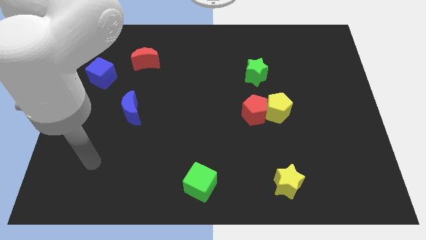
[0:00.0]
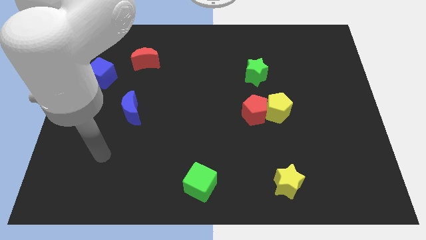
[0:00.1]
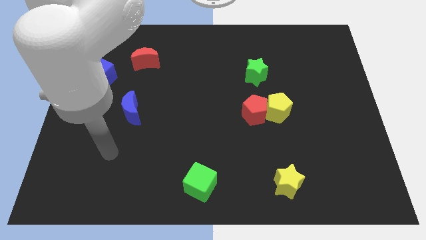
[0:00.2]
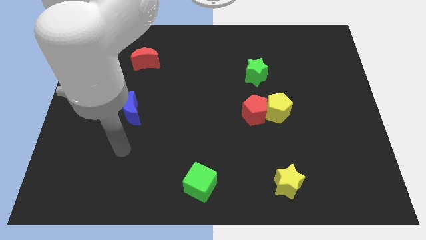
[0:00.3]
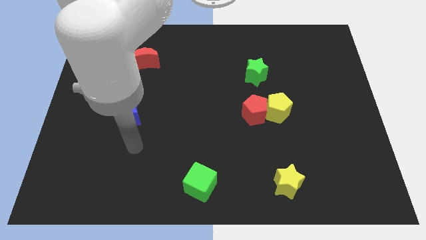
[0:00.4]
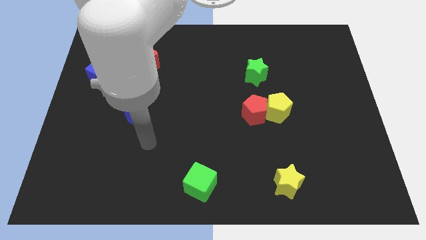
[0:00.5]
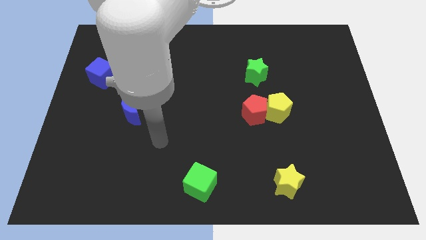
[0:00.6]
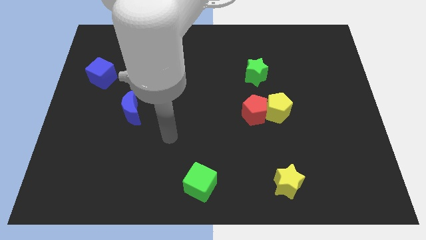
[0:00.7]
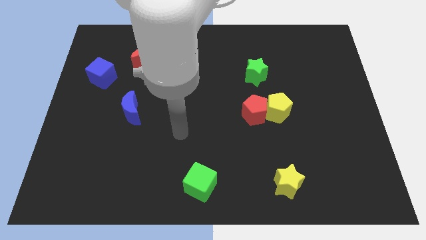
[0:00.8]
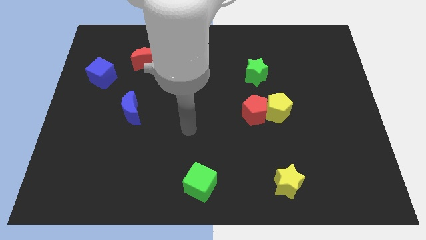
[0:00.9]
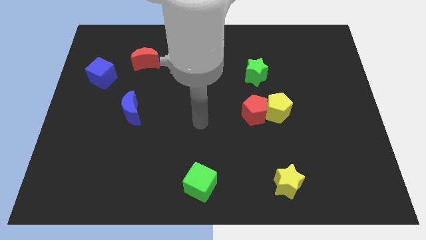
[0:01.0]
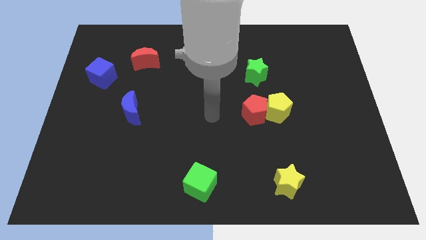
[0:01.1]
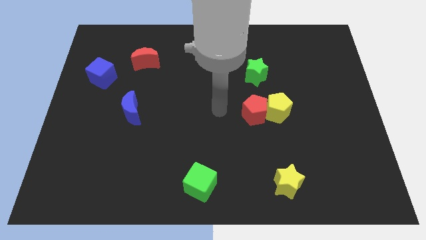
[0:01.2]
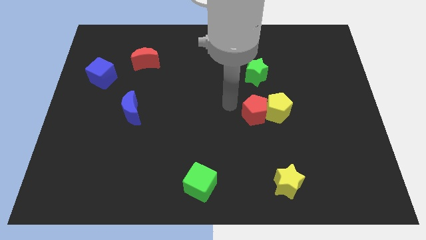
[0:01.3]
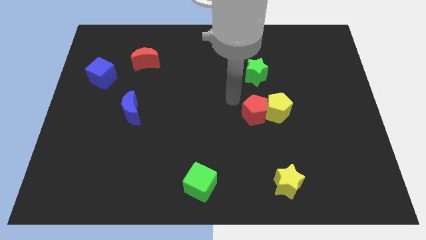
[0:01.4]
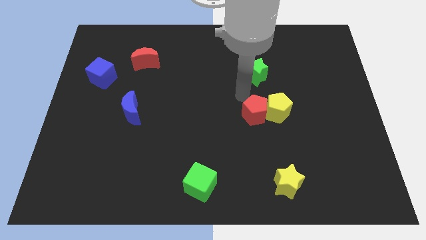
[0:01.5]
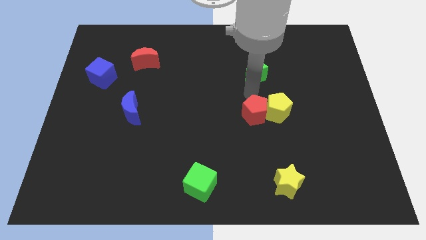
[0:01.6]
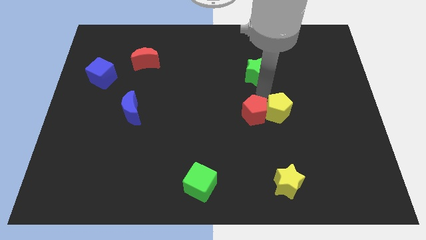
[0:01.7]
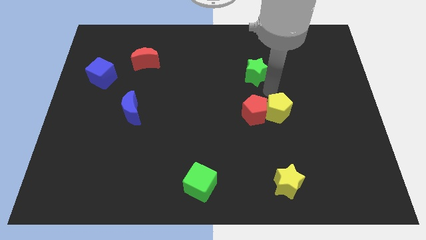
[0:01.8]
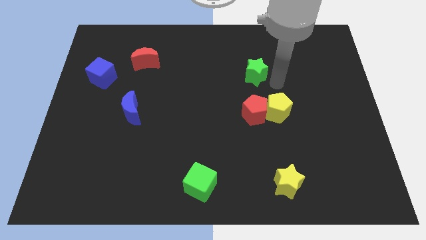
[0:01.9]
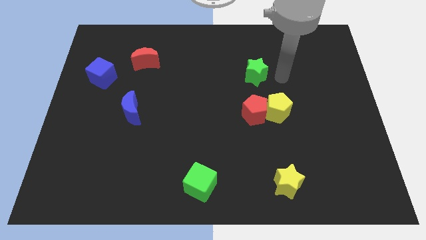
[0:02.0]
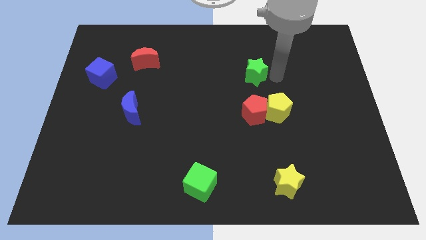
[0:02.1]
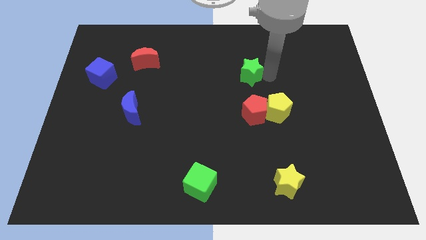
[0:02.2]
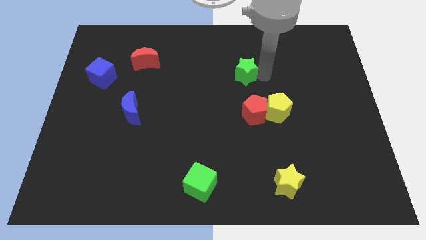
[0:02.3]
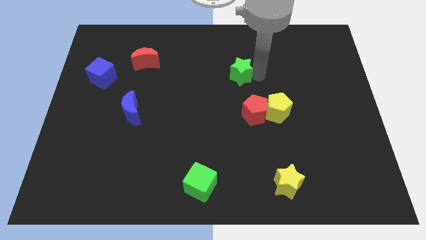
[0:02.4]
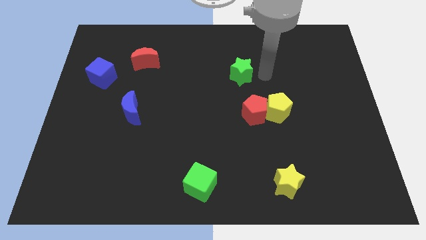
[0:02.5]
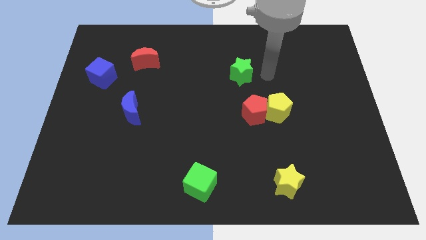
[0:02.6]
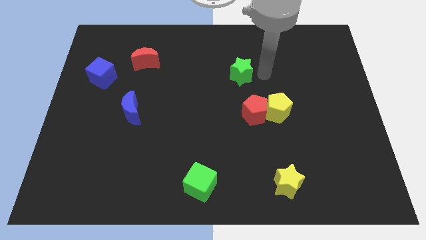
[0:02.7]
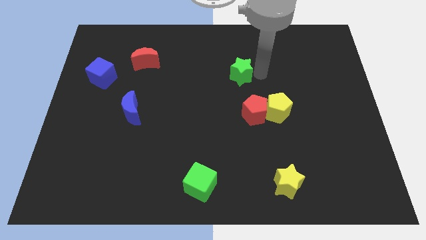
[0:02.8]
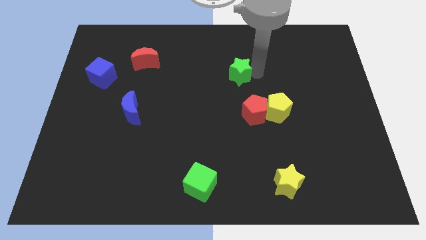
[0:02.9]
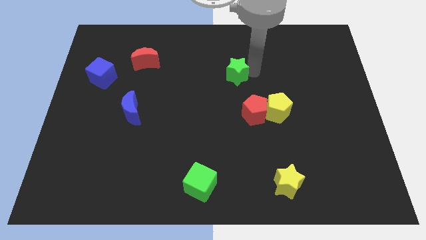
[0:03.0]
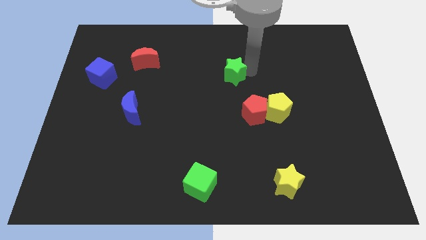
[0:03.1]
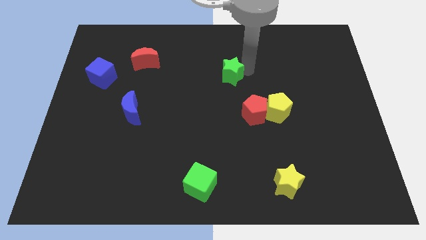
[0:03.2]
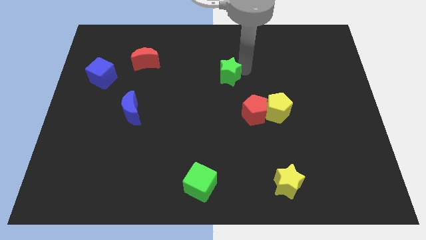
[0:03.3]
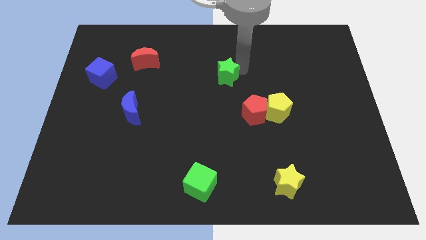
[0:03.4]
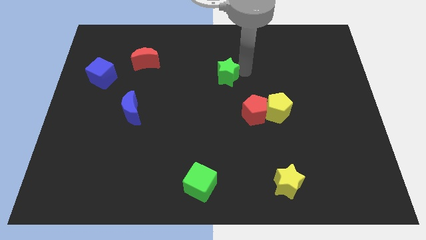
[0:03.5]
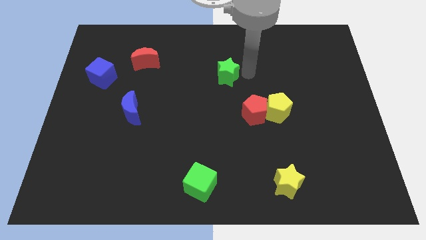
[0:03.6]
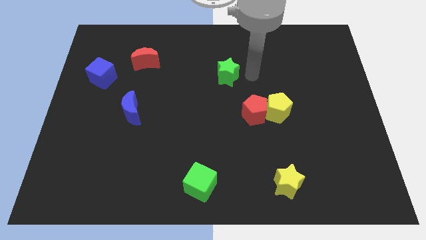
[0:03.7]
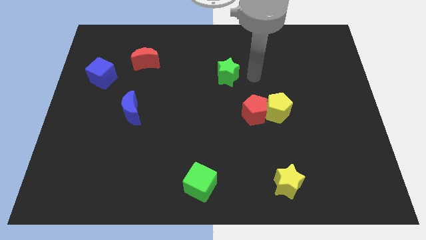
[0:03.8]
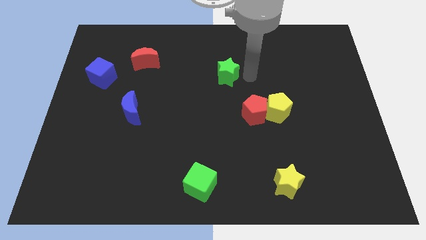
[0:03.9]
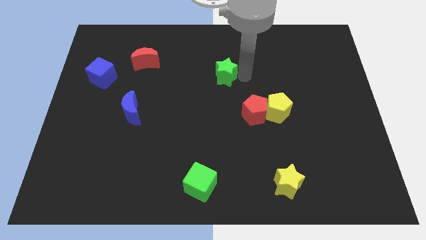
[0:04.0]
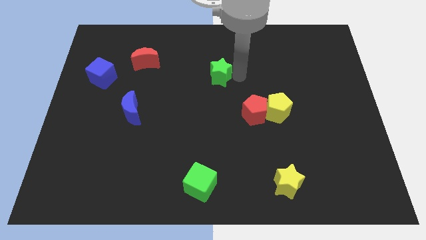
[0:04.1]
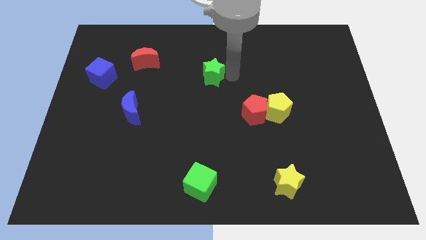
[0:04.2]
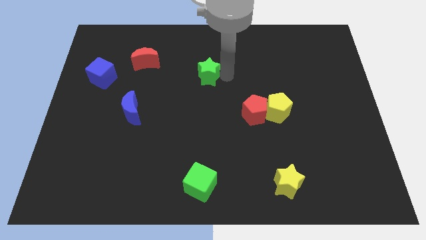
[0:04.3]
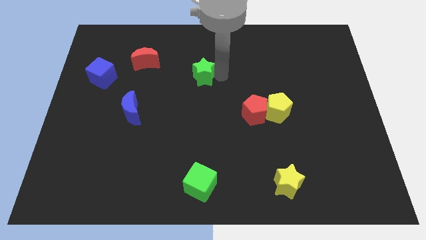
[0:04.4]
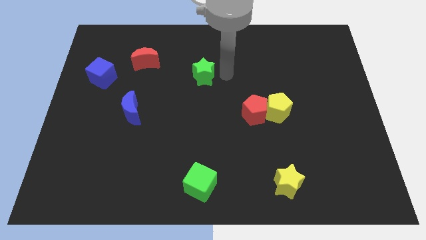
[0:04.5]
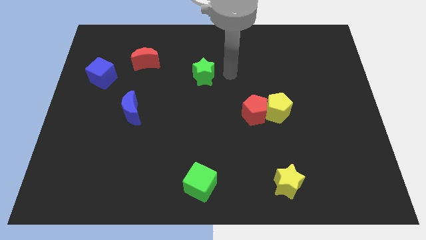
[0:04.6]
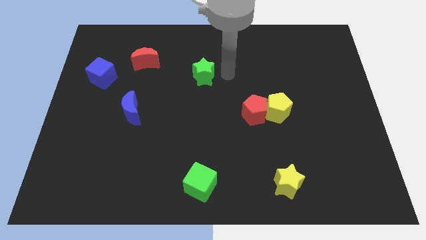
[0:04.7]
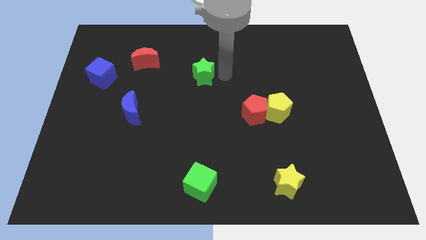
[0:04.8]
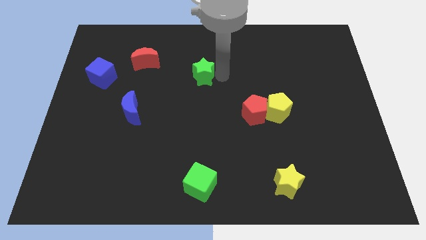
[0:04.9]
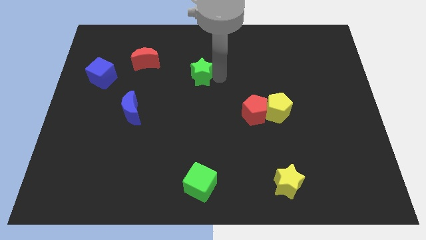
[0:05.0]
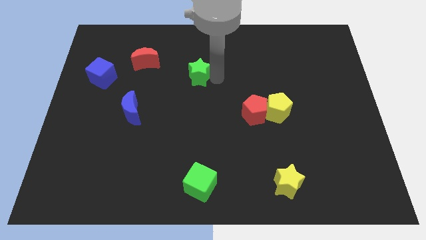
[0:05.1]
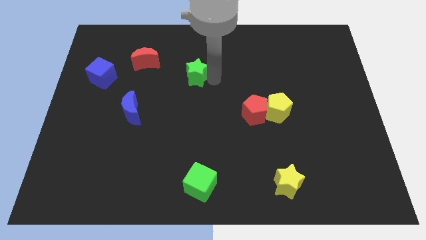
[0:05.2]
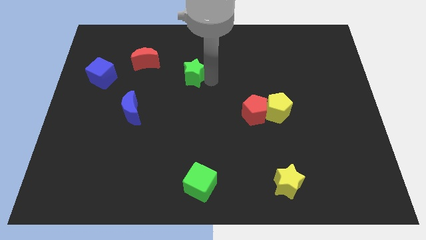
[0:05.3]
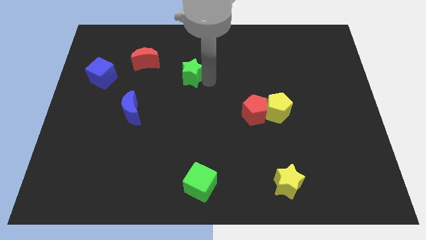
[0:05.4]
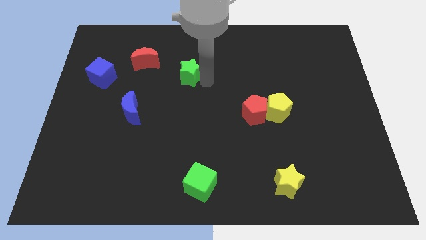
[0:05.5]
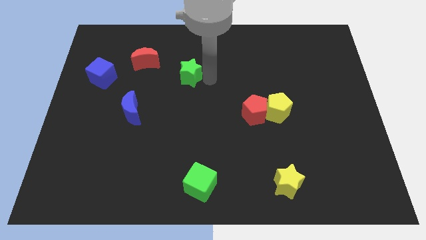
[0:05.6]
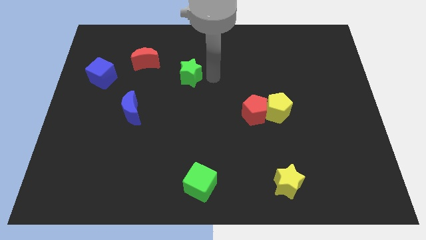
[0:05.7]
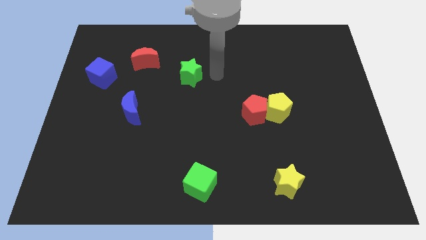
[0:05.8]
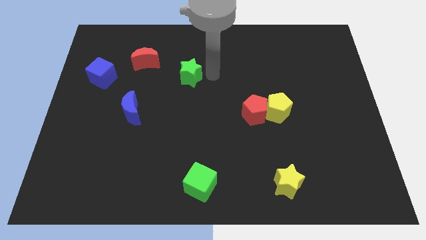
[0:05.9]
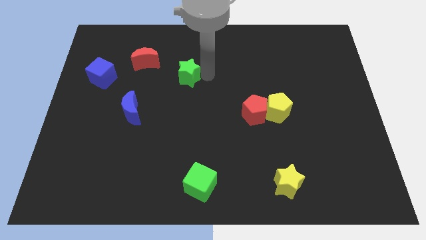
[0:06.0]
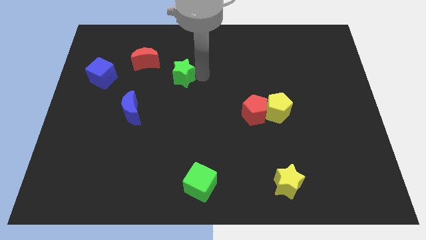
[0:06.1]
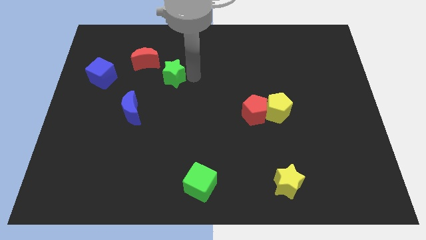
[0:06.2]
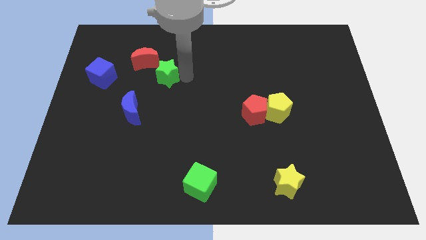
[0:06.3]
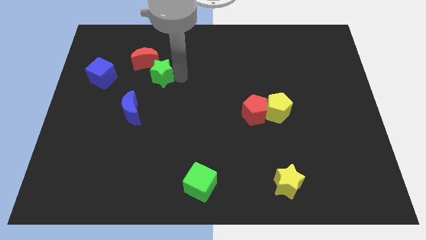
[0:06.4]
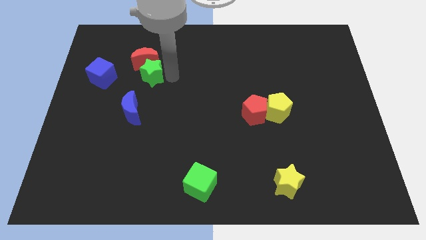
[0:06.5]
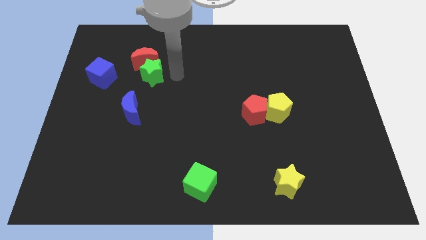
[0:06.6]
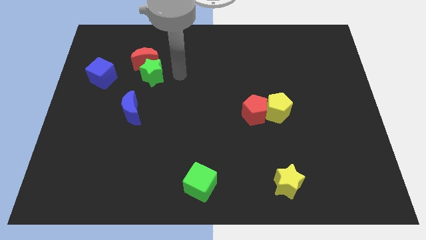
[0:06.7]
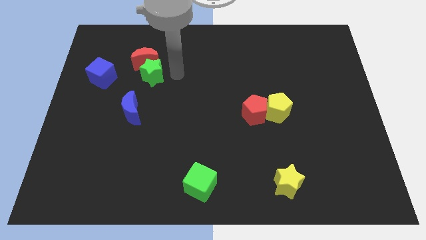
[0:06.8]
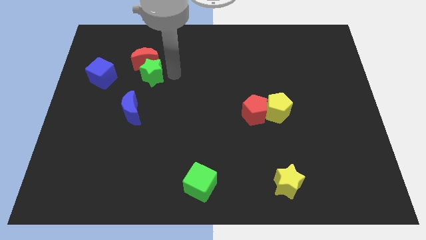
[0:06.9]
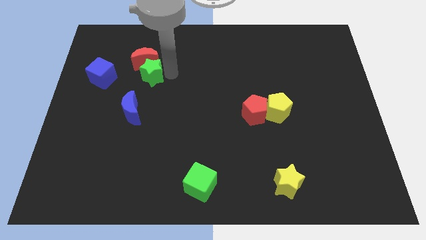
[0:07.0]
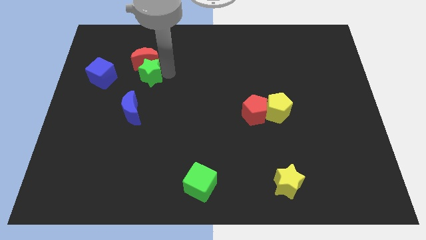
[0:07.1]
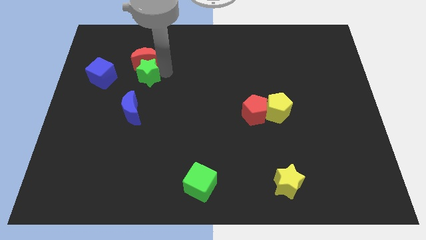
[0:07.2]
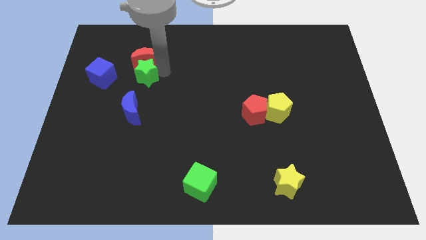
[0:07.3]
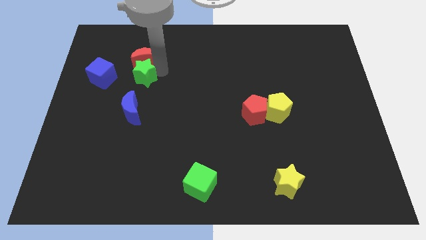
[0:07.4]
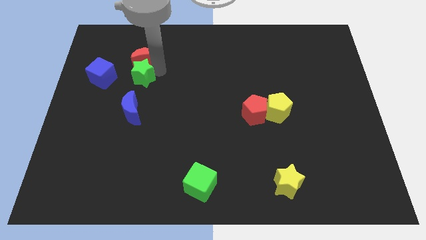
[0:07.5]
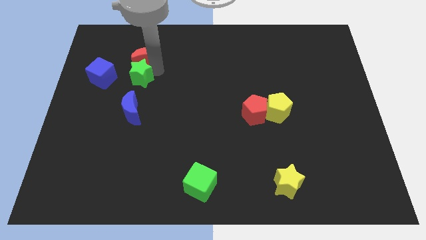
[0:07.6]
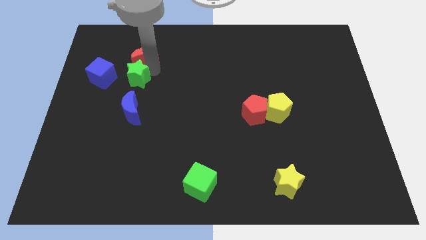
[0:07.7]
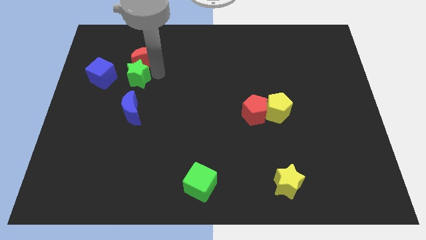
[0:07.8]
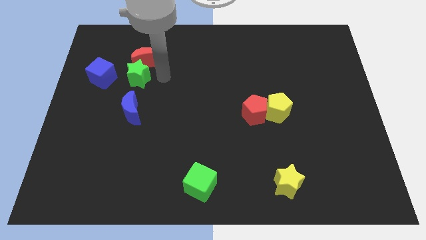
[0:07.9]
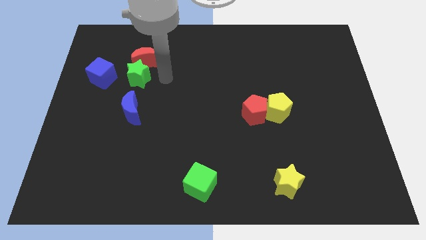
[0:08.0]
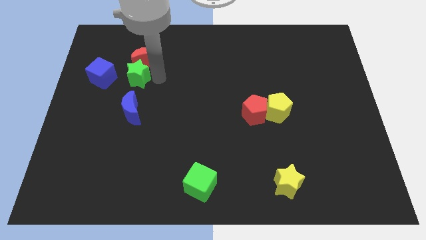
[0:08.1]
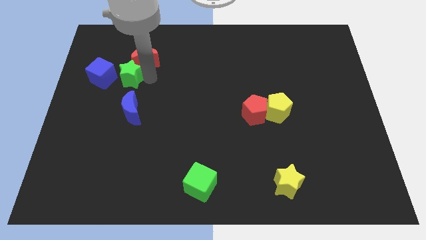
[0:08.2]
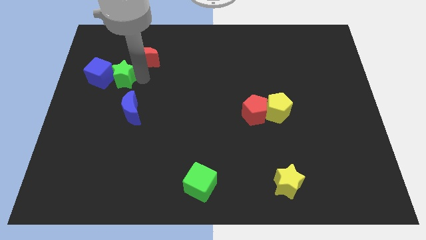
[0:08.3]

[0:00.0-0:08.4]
push the green star towards the blue cube
